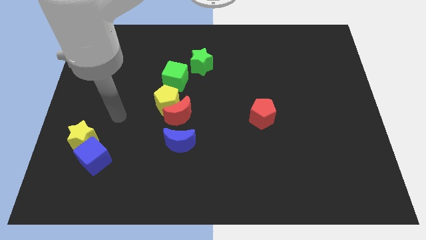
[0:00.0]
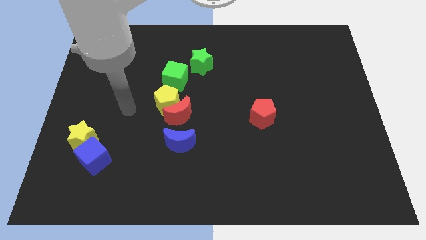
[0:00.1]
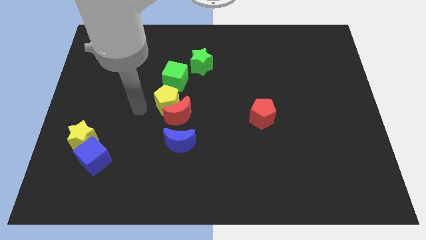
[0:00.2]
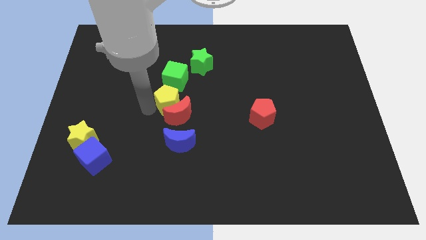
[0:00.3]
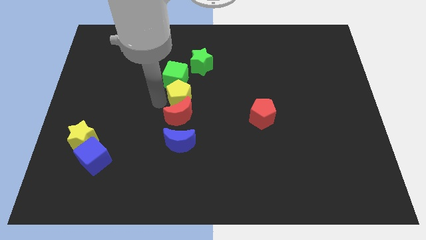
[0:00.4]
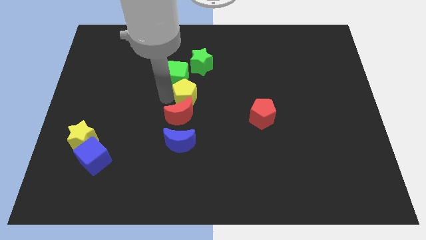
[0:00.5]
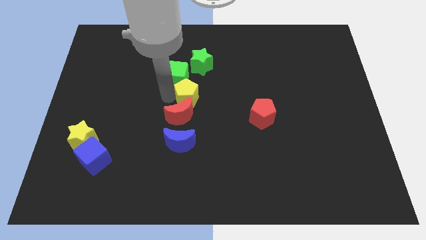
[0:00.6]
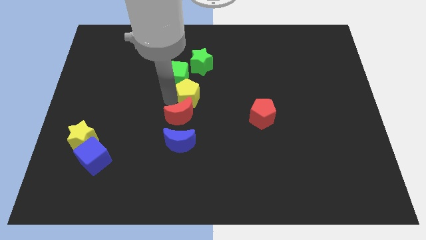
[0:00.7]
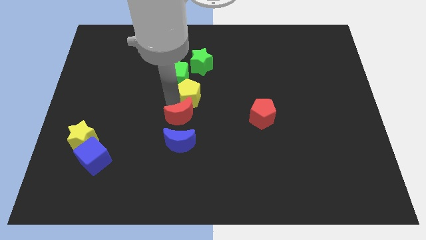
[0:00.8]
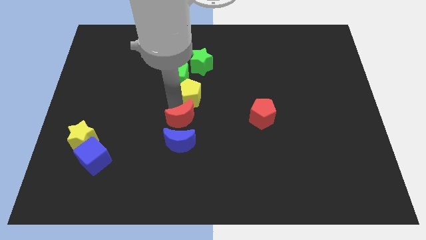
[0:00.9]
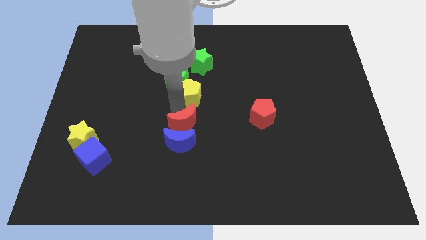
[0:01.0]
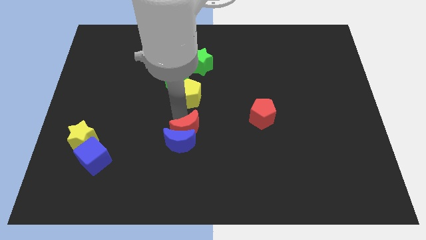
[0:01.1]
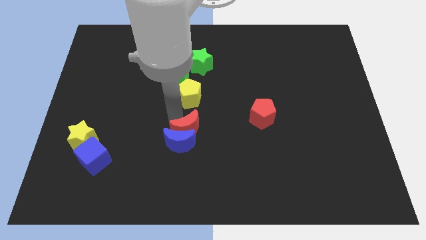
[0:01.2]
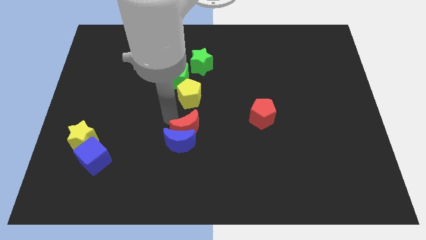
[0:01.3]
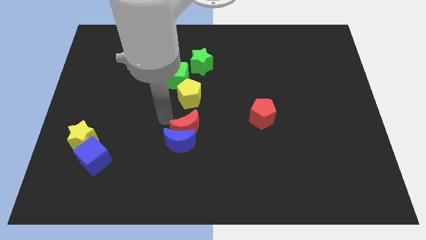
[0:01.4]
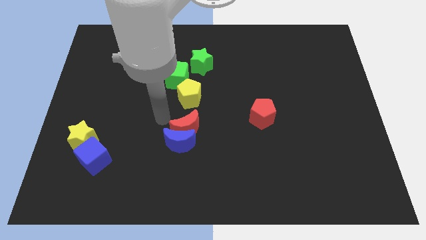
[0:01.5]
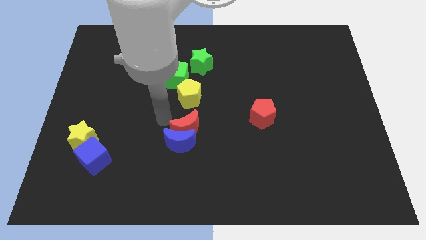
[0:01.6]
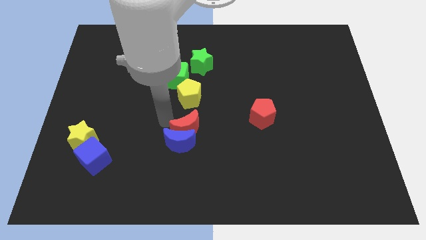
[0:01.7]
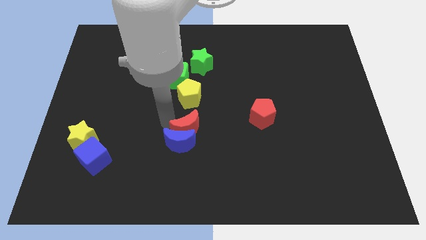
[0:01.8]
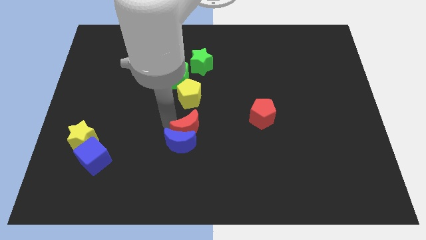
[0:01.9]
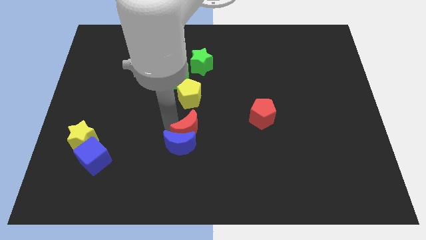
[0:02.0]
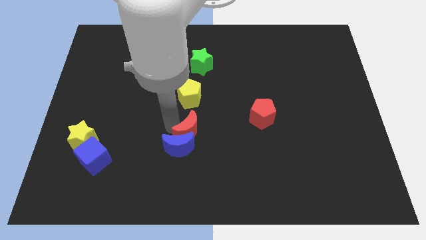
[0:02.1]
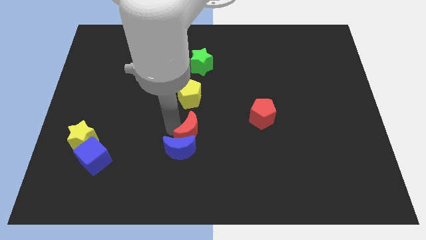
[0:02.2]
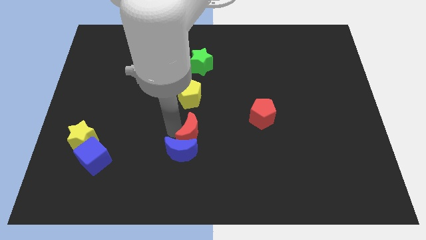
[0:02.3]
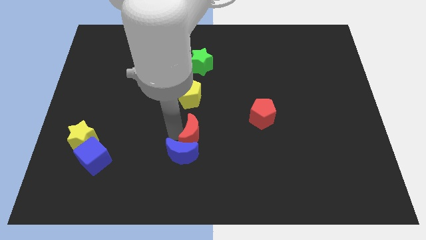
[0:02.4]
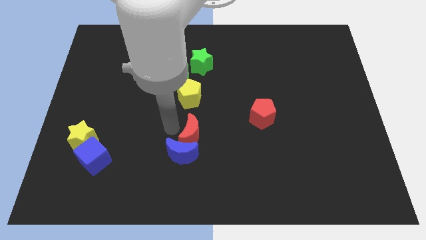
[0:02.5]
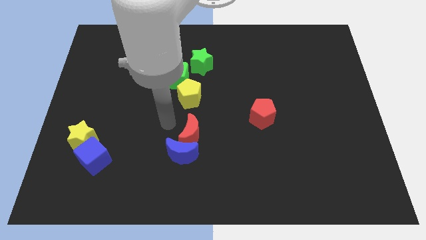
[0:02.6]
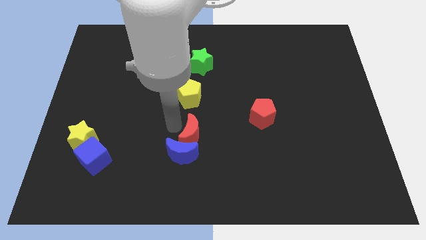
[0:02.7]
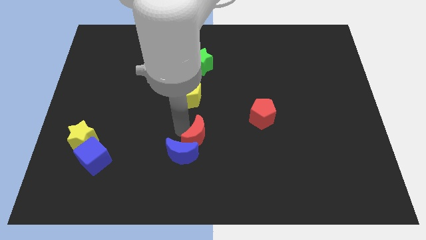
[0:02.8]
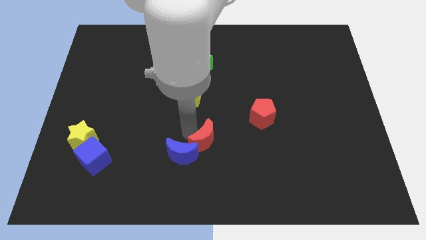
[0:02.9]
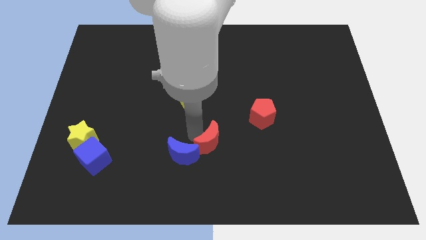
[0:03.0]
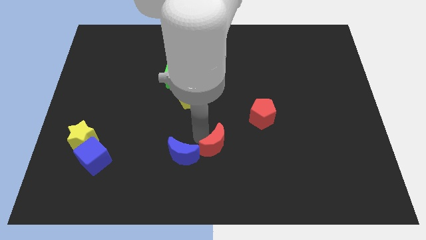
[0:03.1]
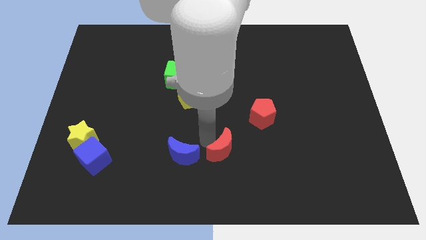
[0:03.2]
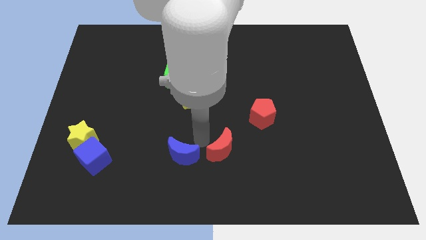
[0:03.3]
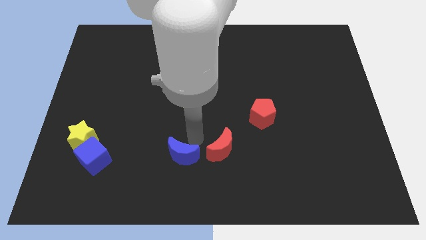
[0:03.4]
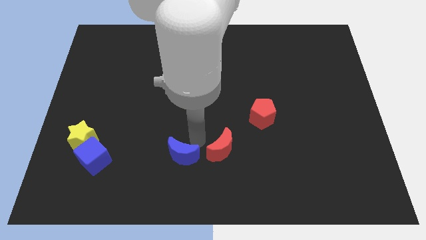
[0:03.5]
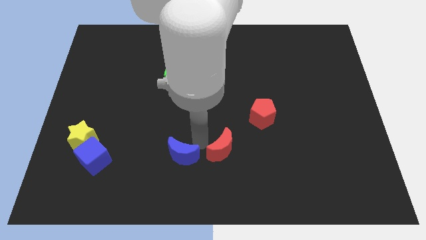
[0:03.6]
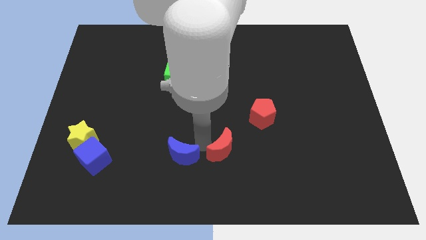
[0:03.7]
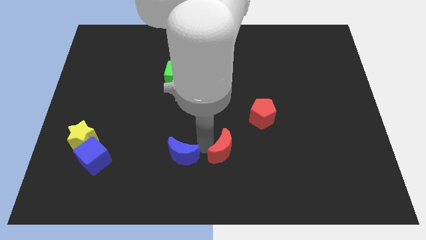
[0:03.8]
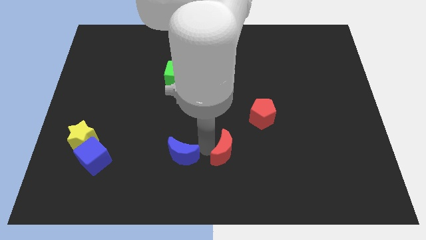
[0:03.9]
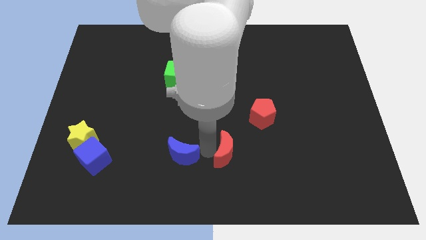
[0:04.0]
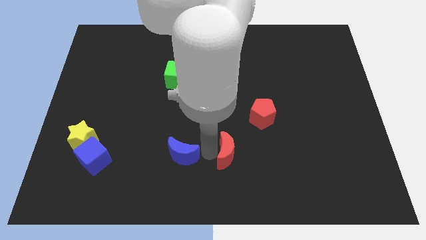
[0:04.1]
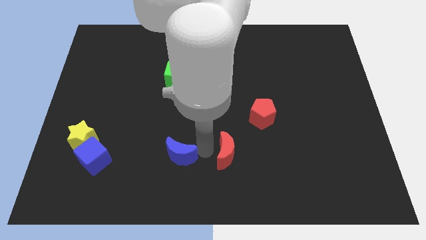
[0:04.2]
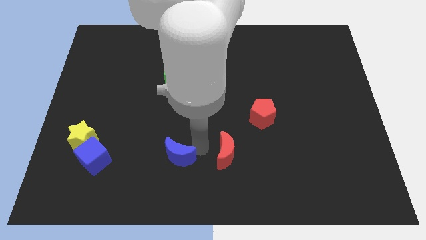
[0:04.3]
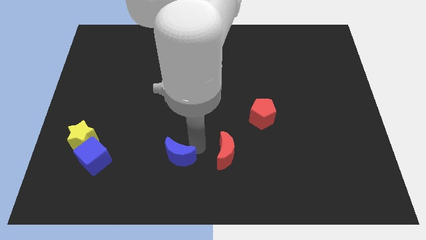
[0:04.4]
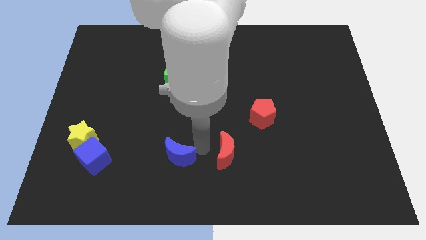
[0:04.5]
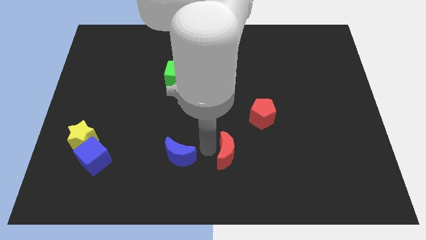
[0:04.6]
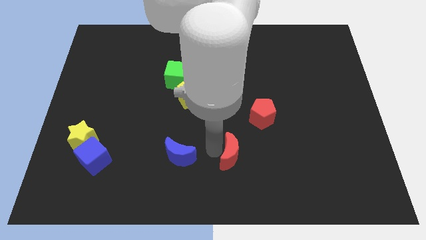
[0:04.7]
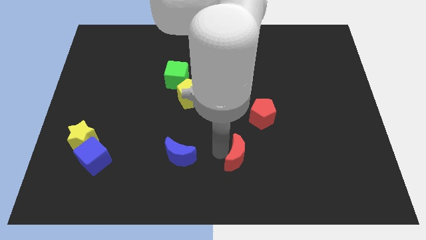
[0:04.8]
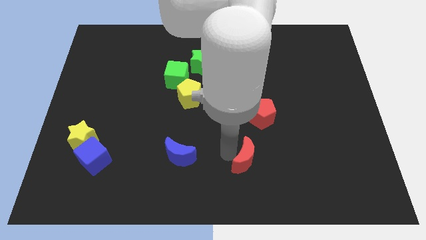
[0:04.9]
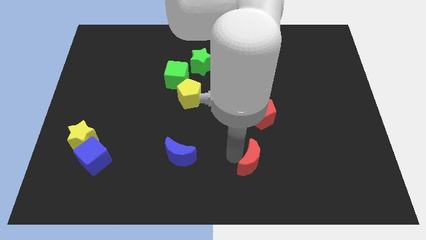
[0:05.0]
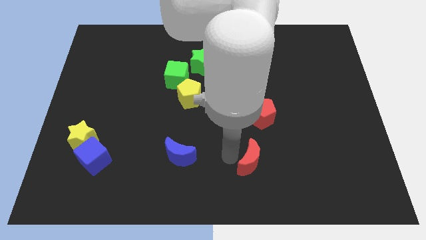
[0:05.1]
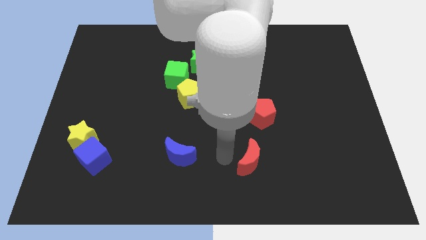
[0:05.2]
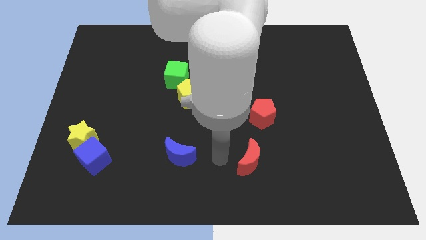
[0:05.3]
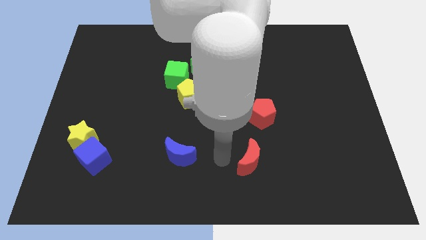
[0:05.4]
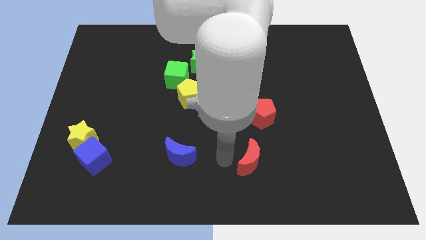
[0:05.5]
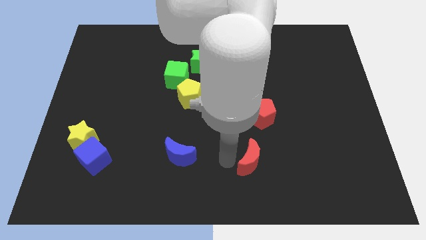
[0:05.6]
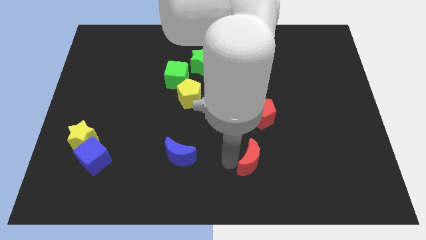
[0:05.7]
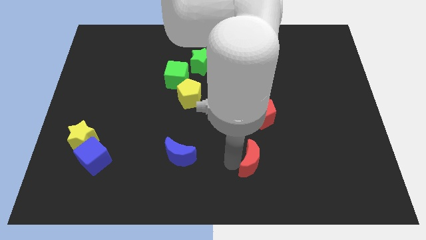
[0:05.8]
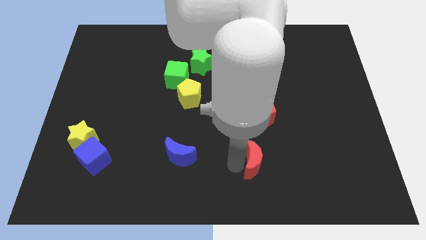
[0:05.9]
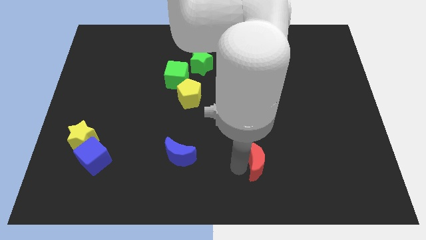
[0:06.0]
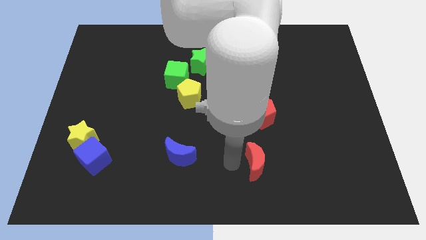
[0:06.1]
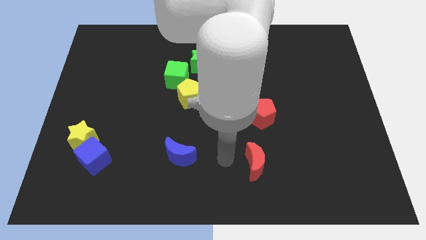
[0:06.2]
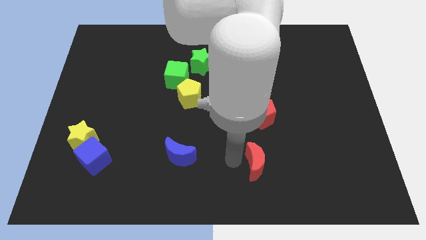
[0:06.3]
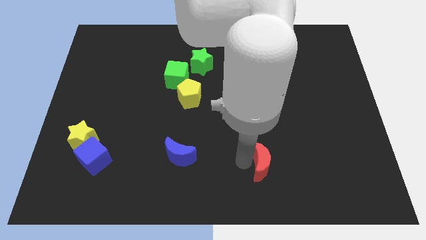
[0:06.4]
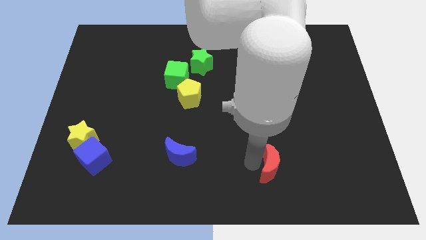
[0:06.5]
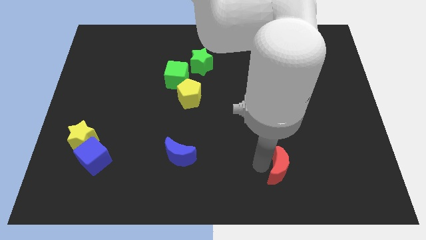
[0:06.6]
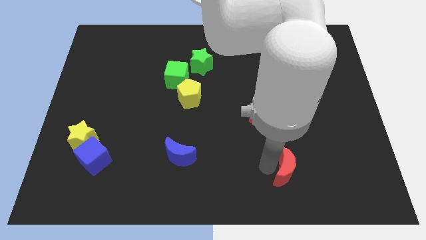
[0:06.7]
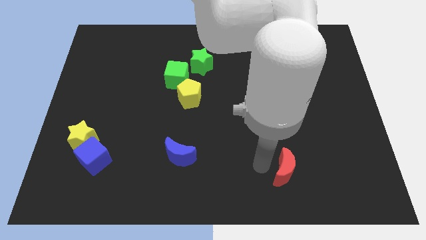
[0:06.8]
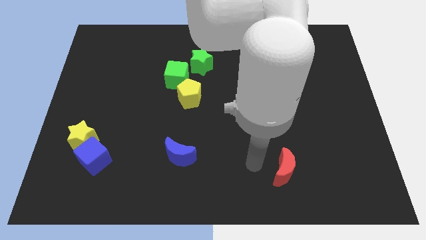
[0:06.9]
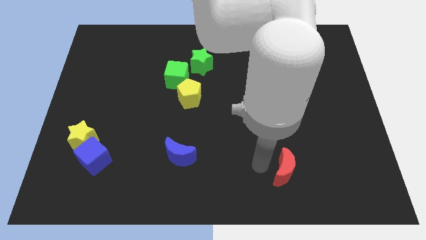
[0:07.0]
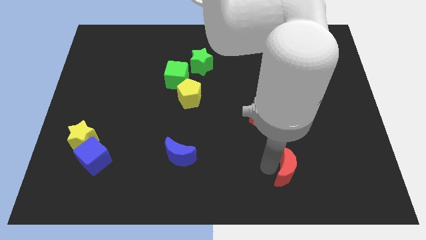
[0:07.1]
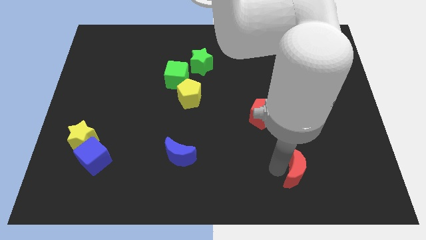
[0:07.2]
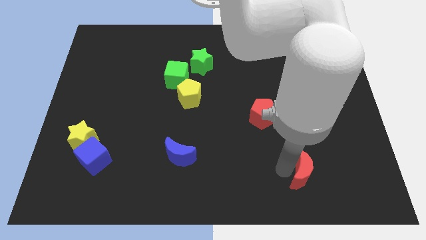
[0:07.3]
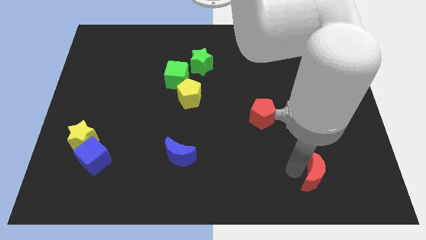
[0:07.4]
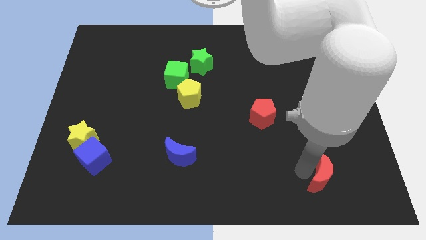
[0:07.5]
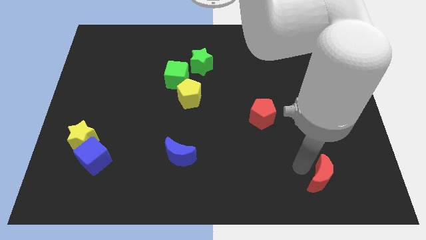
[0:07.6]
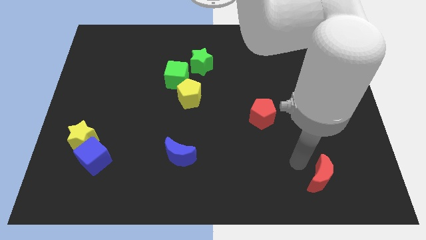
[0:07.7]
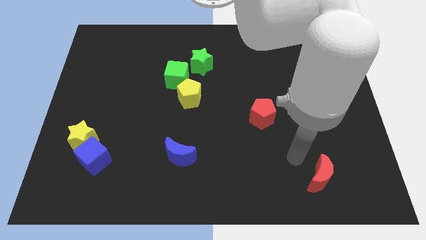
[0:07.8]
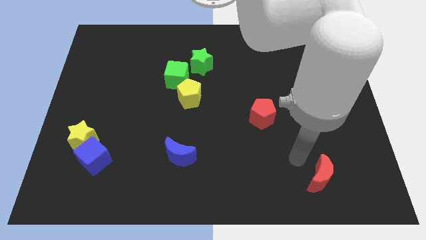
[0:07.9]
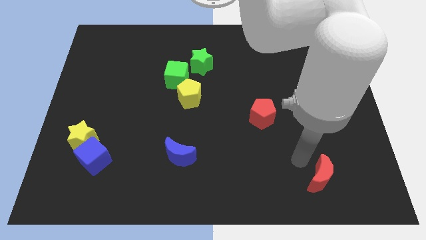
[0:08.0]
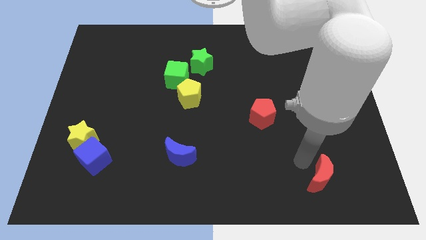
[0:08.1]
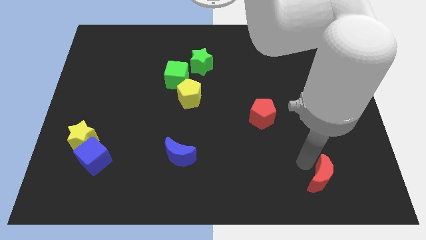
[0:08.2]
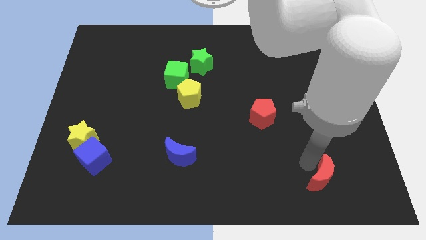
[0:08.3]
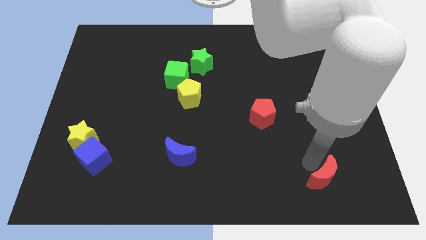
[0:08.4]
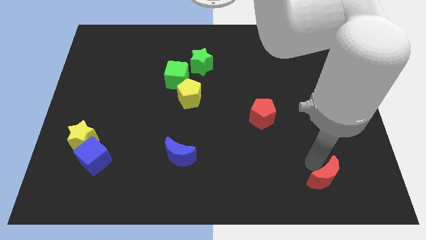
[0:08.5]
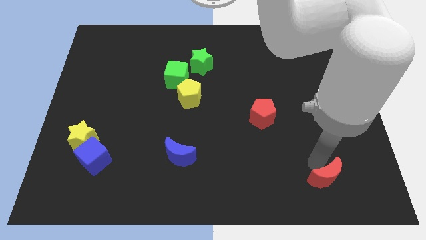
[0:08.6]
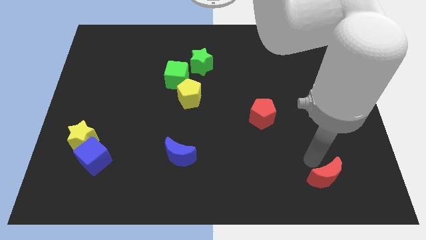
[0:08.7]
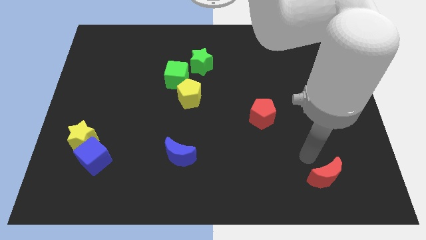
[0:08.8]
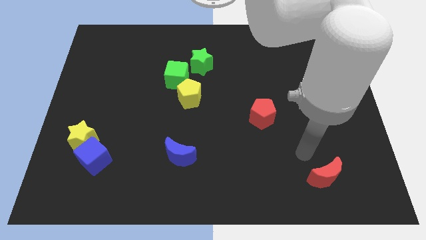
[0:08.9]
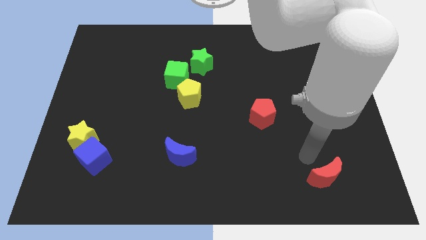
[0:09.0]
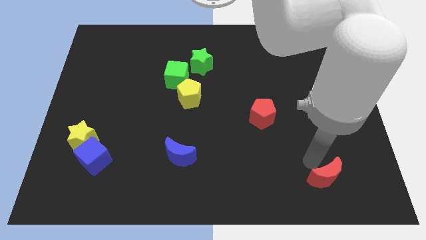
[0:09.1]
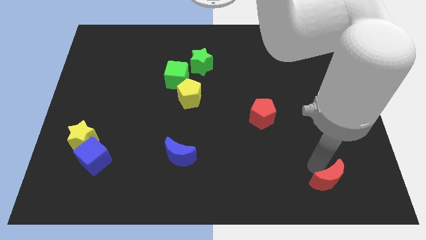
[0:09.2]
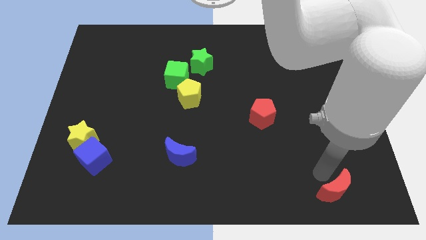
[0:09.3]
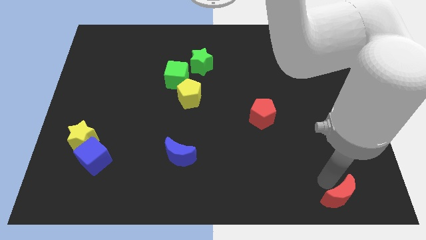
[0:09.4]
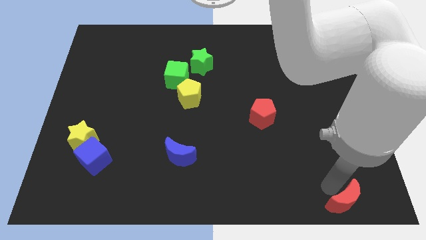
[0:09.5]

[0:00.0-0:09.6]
push the red moon to the bottom right of the board
